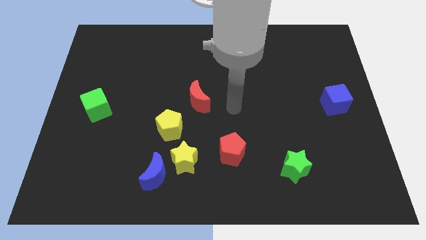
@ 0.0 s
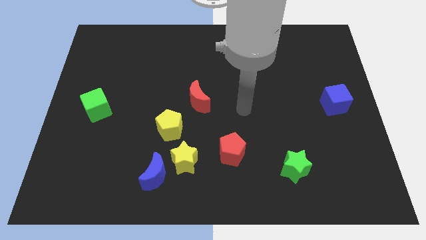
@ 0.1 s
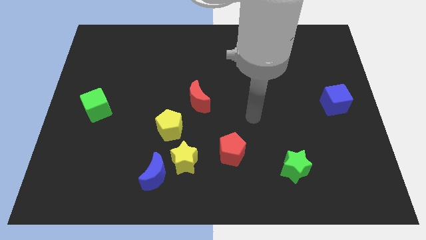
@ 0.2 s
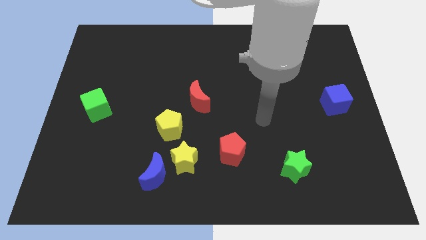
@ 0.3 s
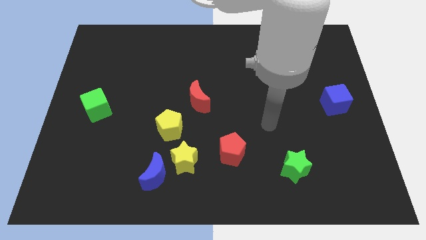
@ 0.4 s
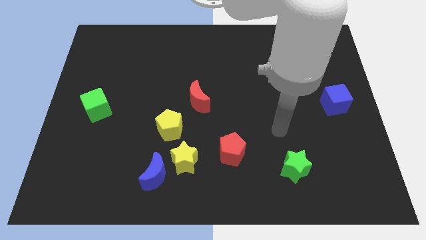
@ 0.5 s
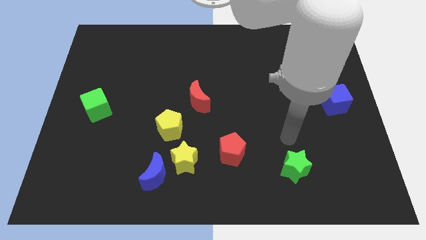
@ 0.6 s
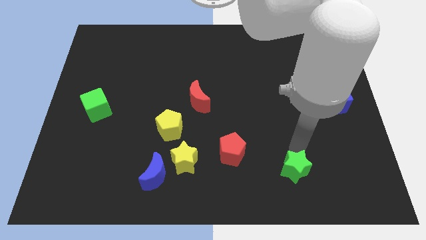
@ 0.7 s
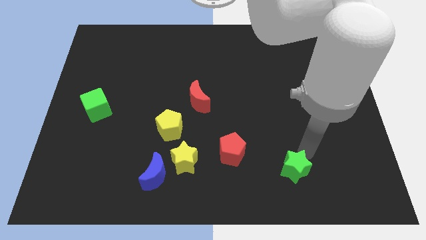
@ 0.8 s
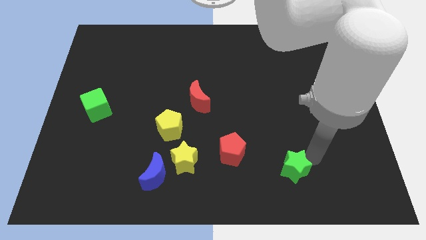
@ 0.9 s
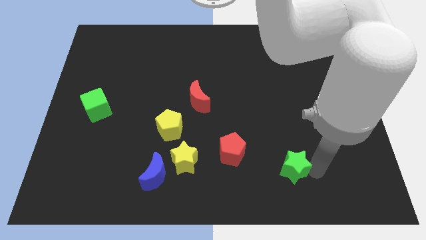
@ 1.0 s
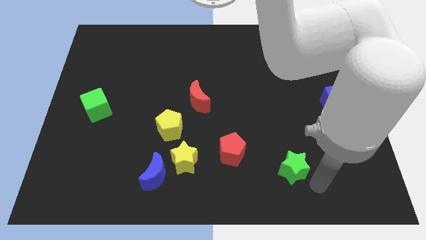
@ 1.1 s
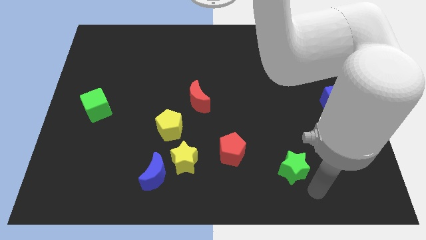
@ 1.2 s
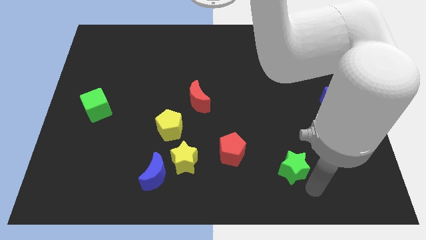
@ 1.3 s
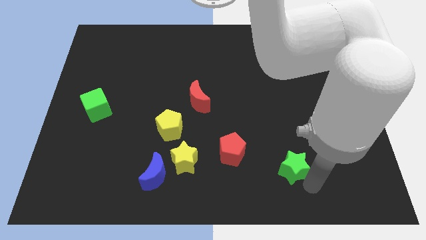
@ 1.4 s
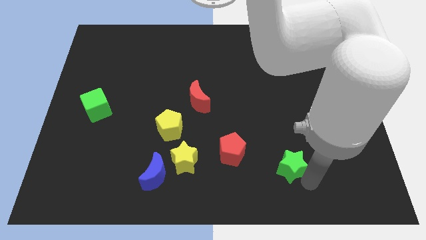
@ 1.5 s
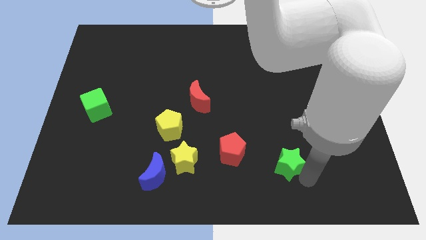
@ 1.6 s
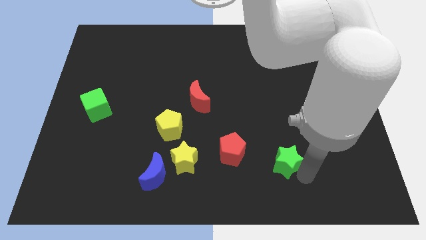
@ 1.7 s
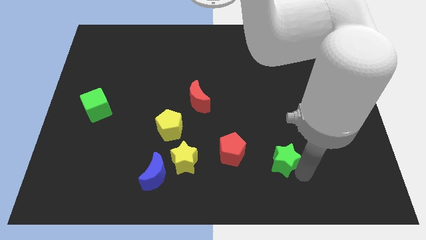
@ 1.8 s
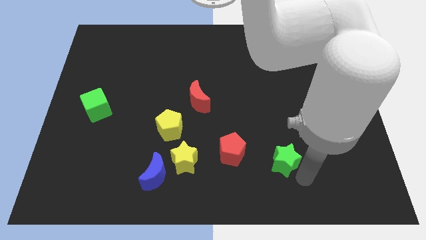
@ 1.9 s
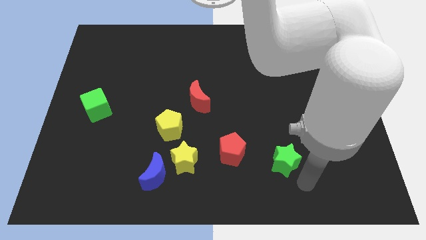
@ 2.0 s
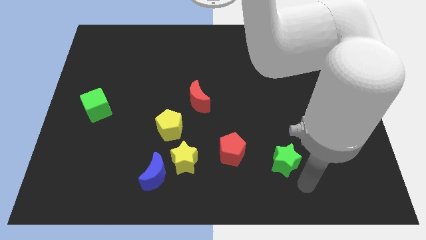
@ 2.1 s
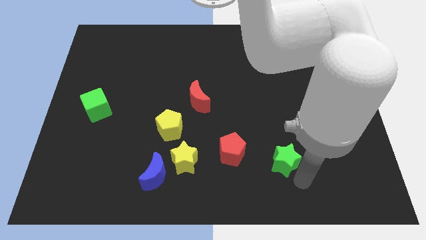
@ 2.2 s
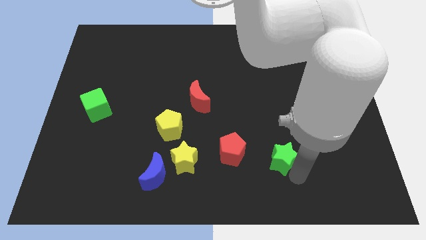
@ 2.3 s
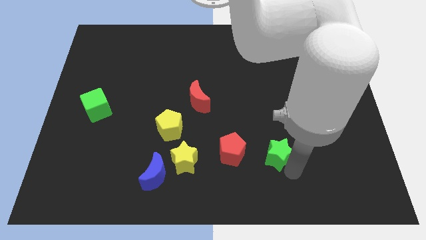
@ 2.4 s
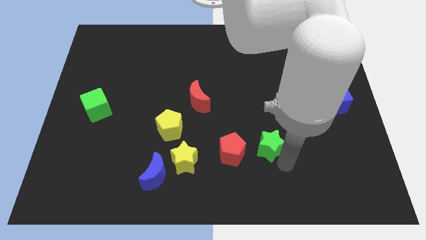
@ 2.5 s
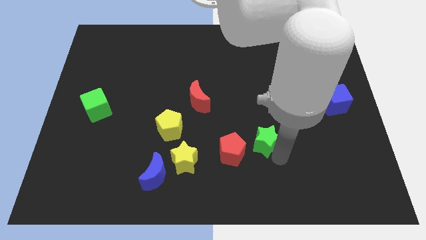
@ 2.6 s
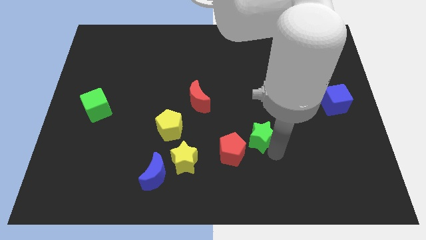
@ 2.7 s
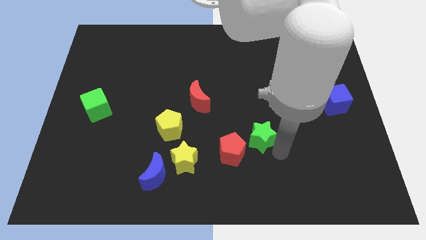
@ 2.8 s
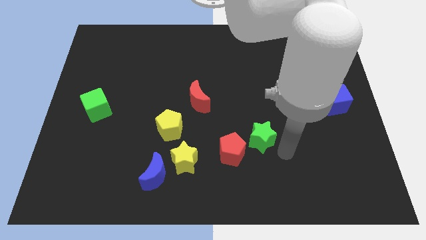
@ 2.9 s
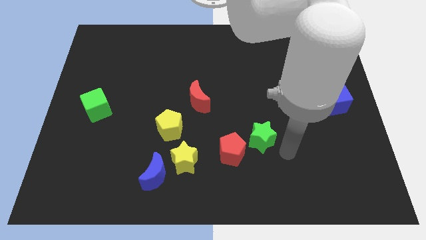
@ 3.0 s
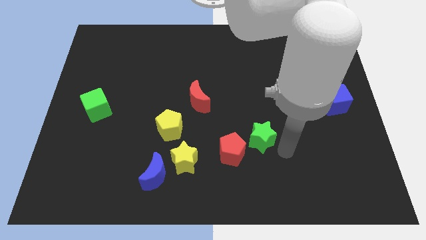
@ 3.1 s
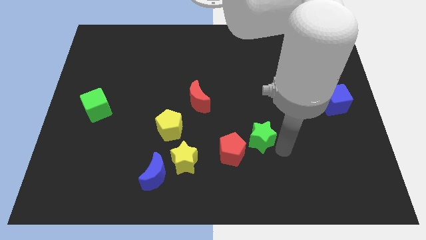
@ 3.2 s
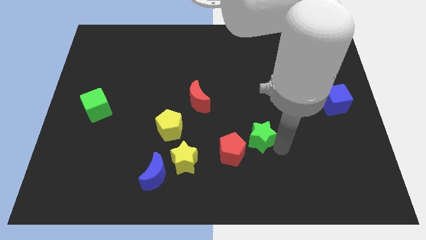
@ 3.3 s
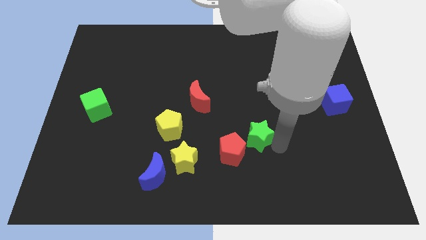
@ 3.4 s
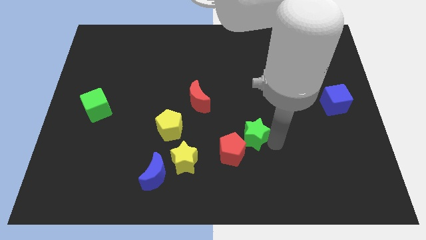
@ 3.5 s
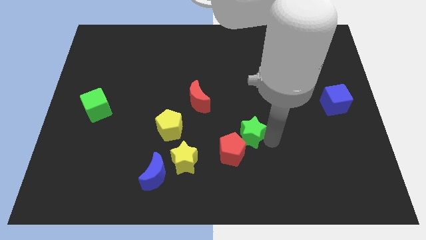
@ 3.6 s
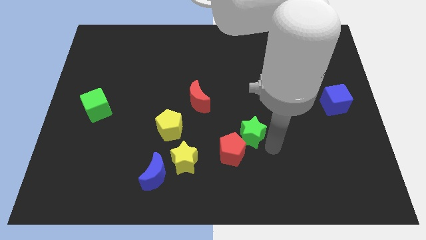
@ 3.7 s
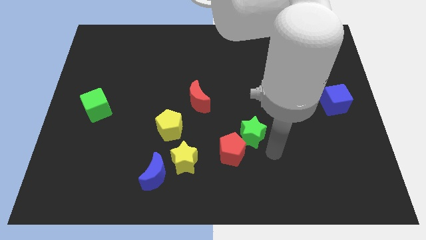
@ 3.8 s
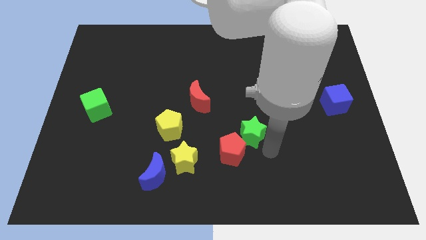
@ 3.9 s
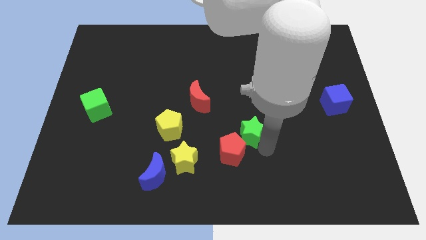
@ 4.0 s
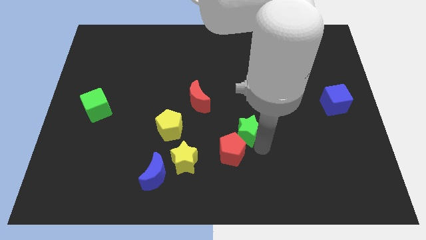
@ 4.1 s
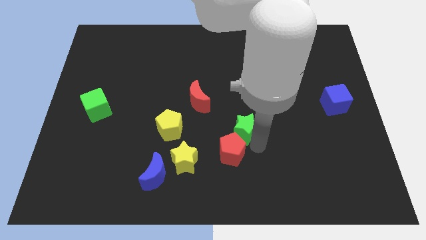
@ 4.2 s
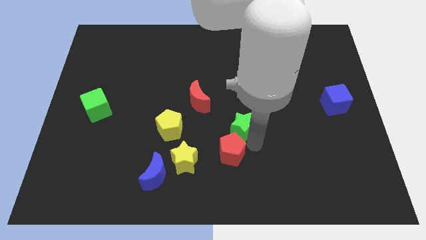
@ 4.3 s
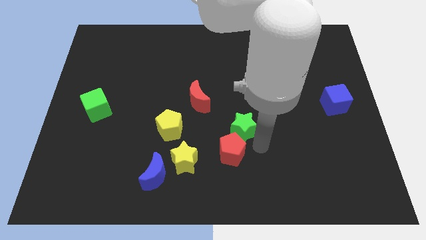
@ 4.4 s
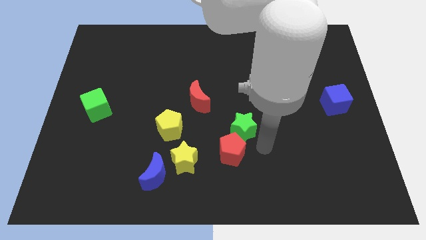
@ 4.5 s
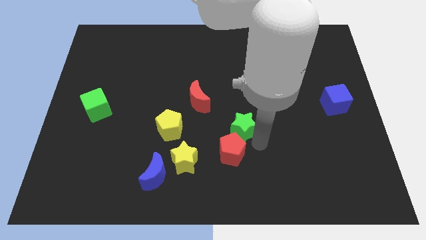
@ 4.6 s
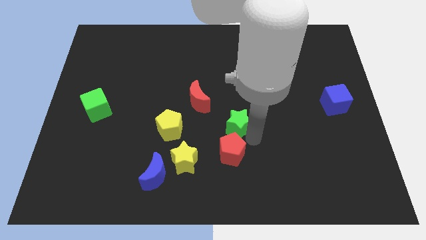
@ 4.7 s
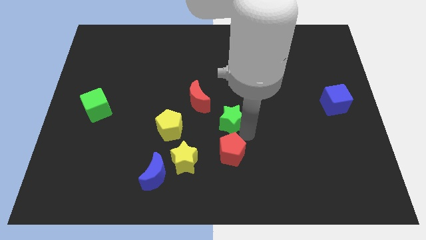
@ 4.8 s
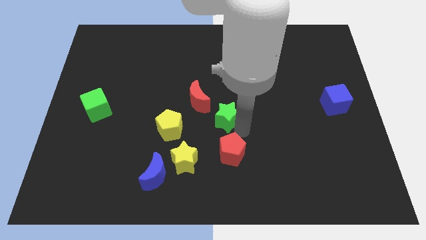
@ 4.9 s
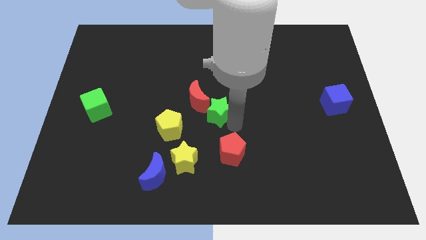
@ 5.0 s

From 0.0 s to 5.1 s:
push the green star towards the red moon

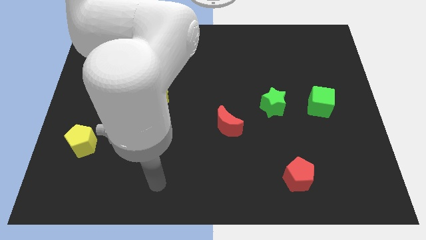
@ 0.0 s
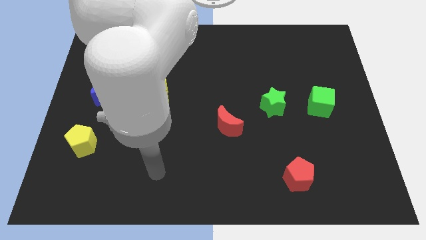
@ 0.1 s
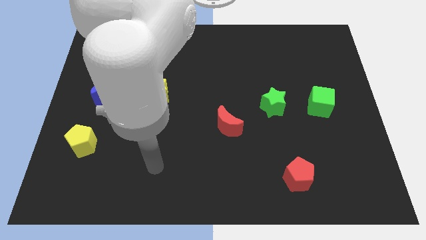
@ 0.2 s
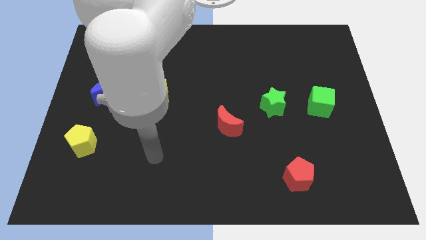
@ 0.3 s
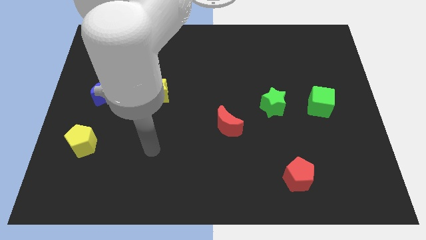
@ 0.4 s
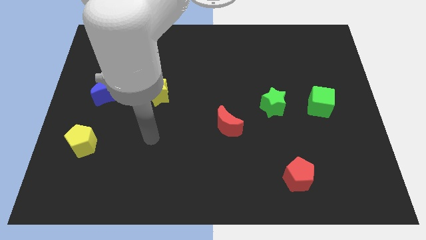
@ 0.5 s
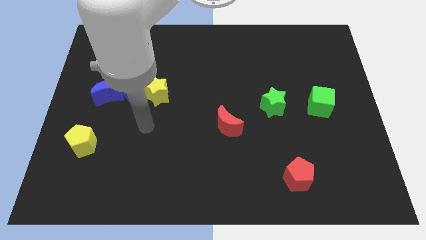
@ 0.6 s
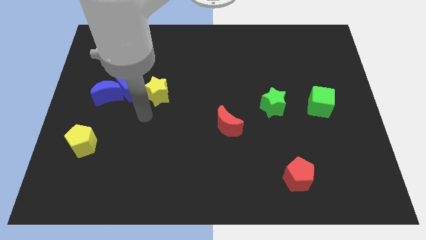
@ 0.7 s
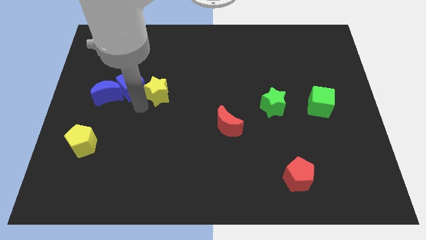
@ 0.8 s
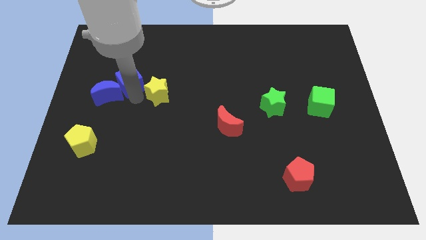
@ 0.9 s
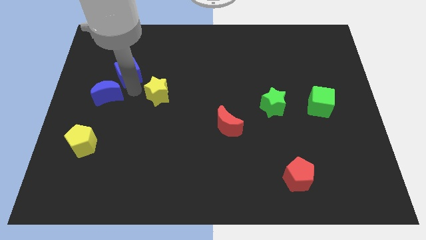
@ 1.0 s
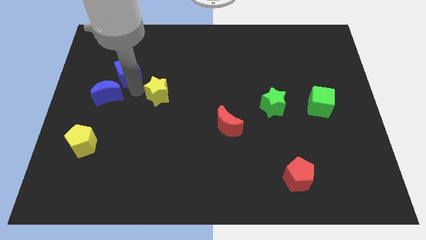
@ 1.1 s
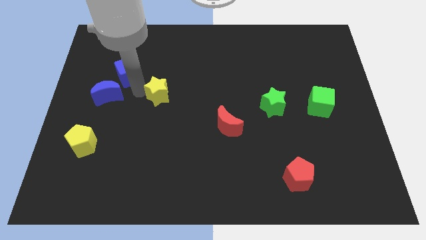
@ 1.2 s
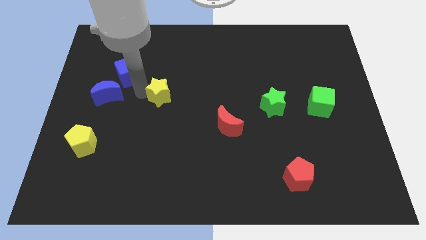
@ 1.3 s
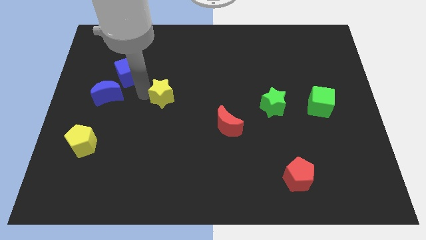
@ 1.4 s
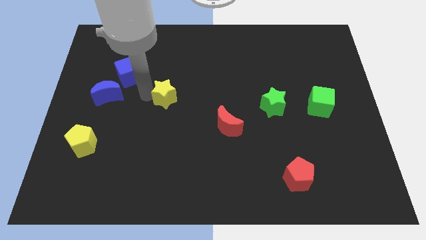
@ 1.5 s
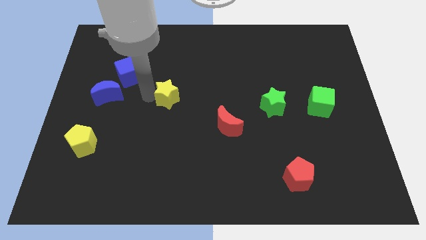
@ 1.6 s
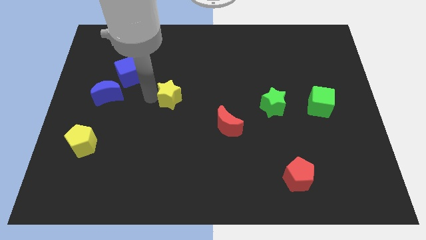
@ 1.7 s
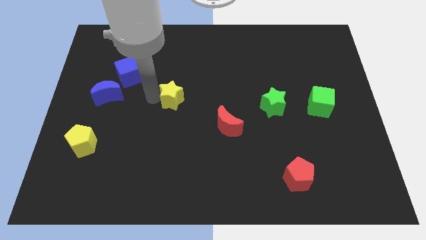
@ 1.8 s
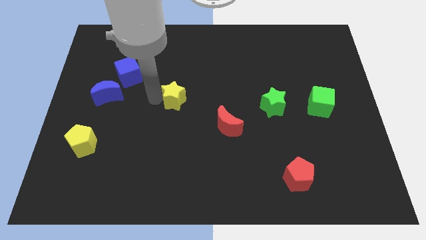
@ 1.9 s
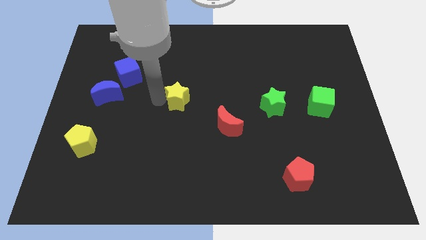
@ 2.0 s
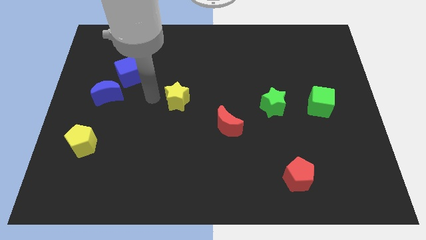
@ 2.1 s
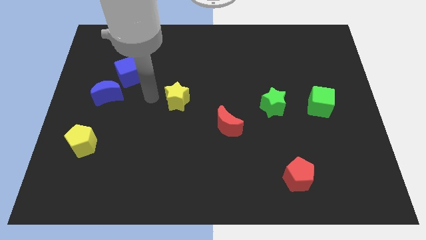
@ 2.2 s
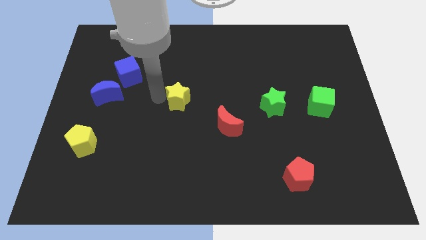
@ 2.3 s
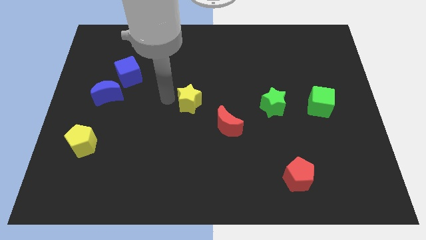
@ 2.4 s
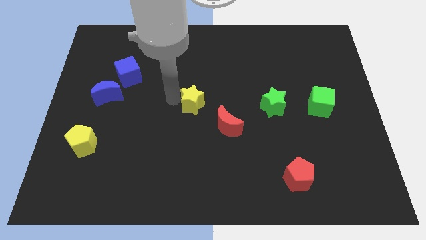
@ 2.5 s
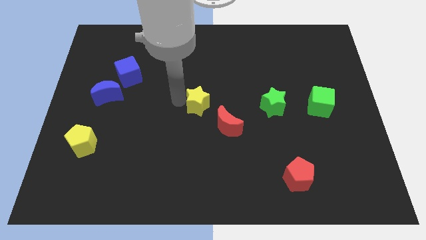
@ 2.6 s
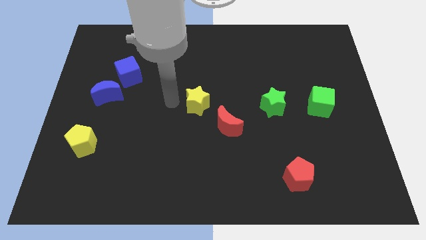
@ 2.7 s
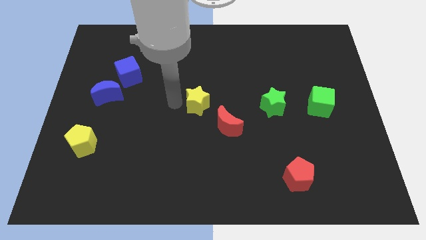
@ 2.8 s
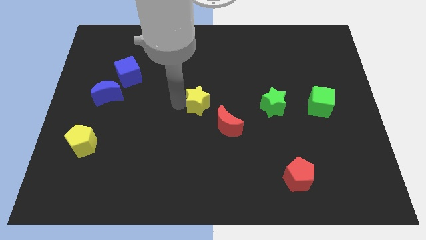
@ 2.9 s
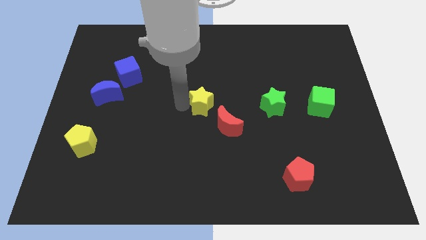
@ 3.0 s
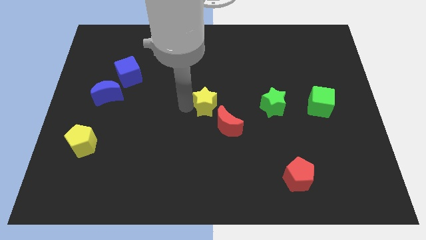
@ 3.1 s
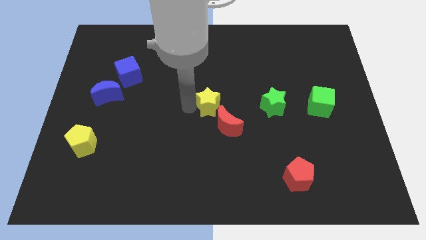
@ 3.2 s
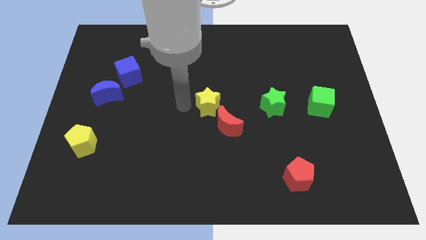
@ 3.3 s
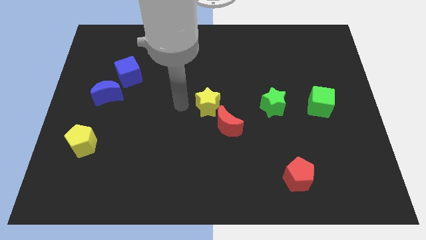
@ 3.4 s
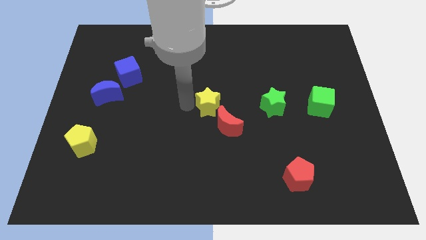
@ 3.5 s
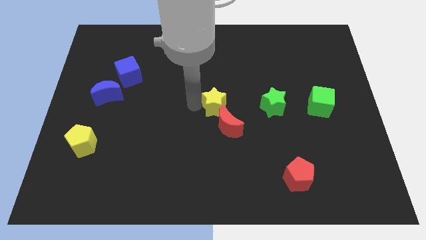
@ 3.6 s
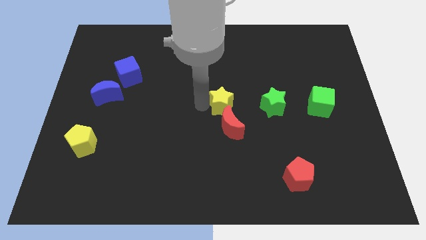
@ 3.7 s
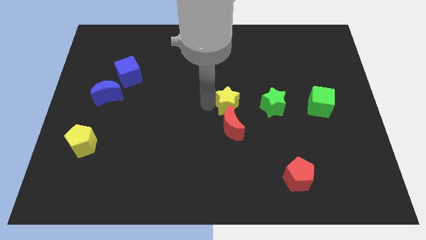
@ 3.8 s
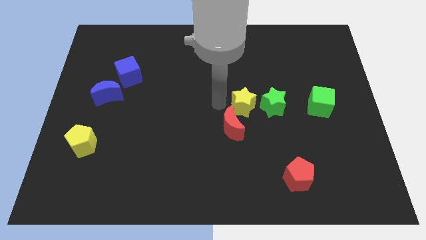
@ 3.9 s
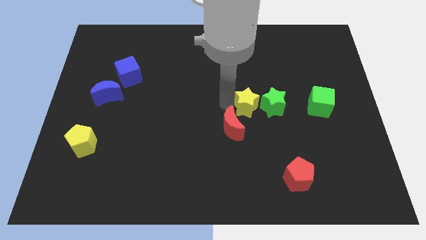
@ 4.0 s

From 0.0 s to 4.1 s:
move the yellow star next to the green star
